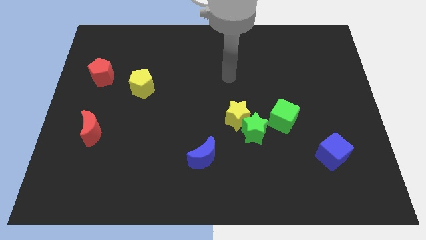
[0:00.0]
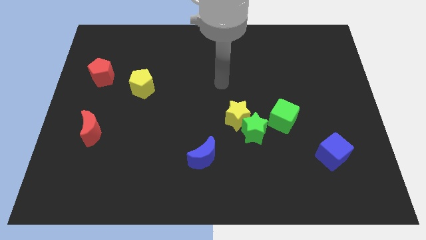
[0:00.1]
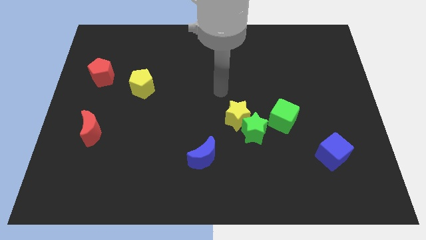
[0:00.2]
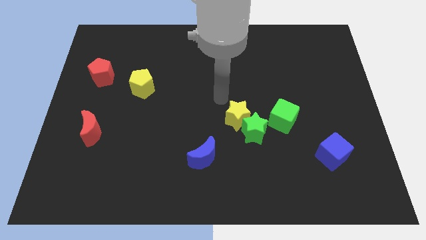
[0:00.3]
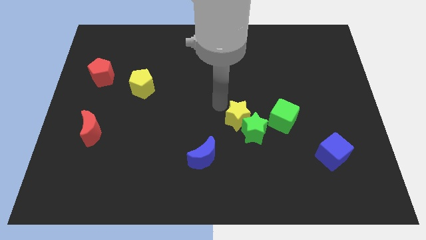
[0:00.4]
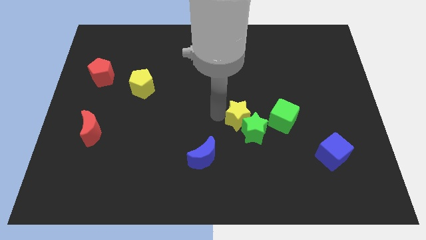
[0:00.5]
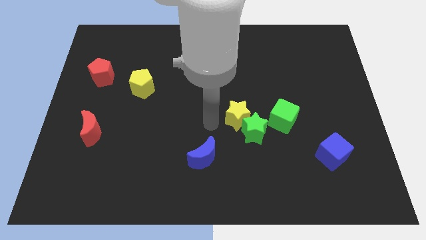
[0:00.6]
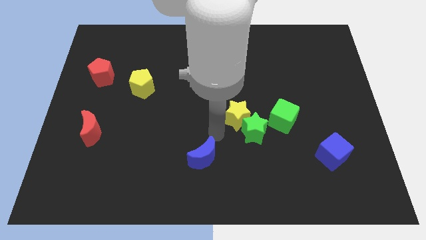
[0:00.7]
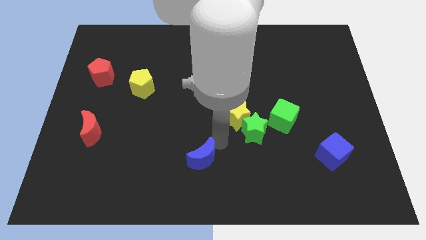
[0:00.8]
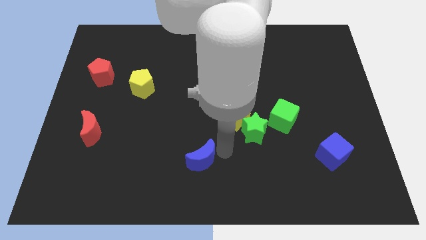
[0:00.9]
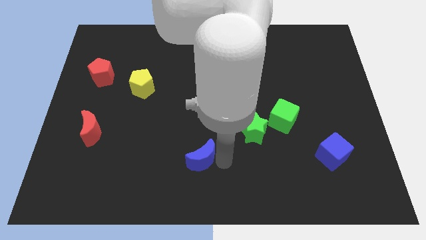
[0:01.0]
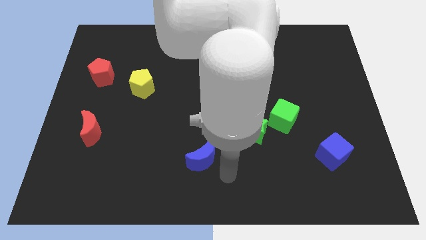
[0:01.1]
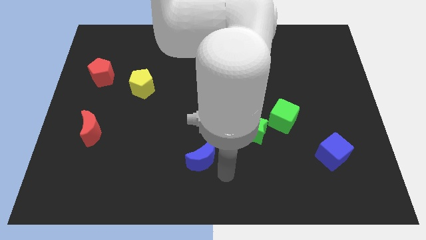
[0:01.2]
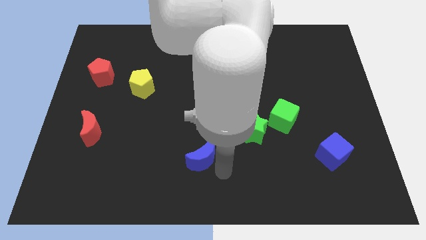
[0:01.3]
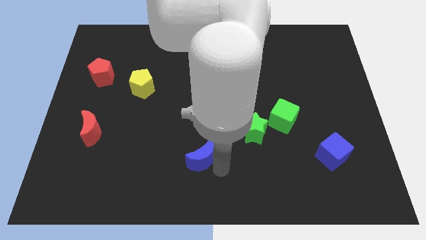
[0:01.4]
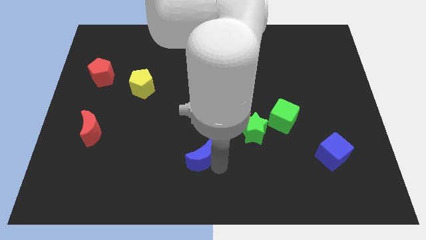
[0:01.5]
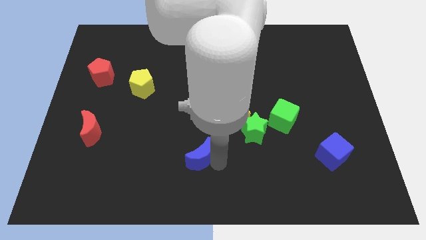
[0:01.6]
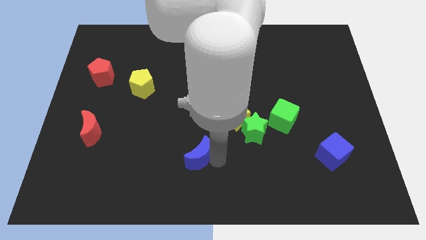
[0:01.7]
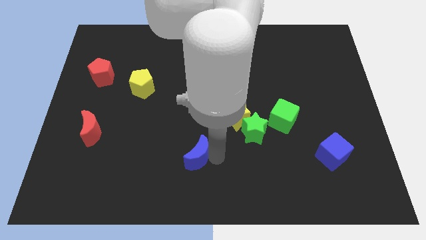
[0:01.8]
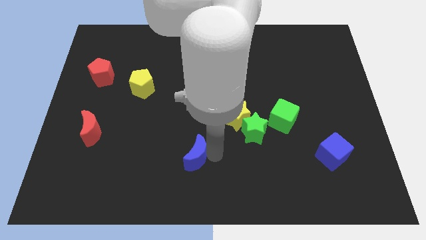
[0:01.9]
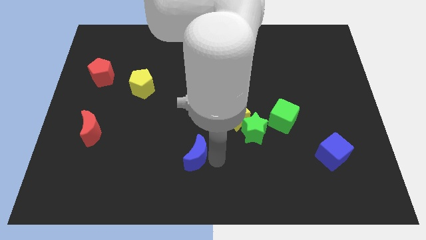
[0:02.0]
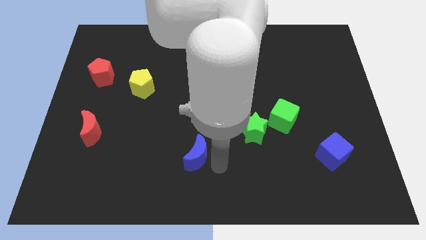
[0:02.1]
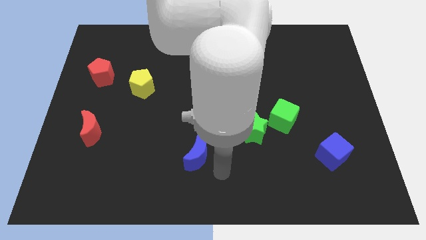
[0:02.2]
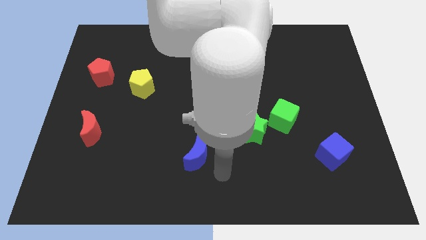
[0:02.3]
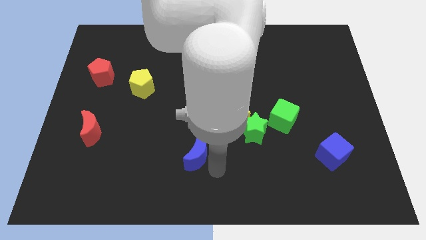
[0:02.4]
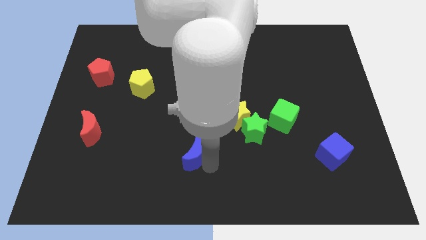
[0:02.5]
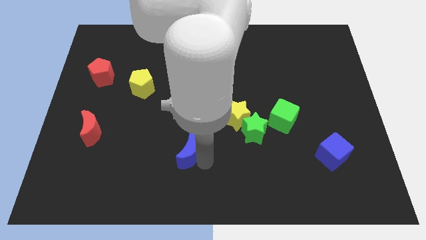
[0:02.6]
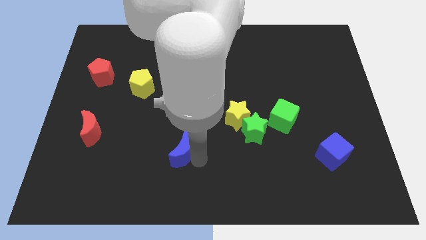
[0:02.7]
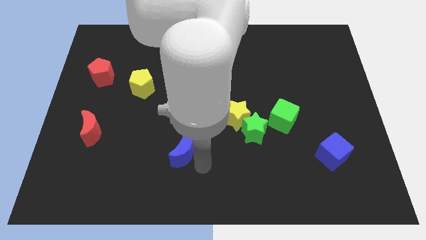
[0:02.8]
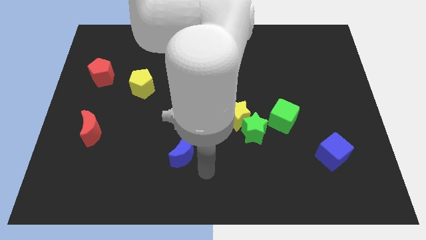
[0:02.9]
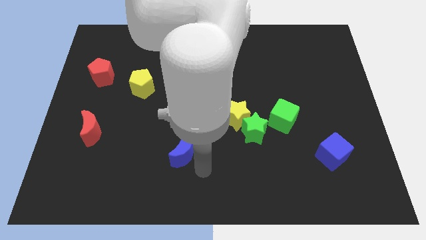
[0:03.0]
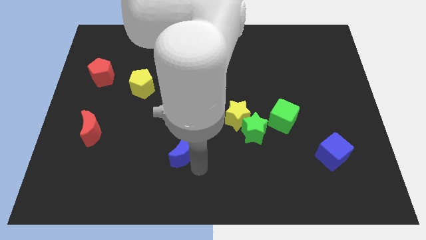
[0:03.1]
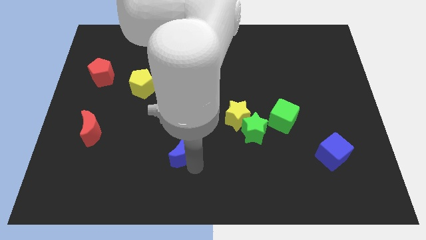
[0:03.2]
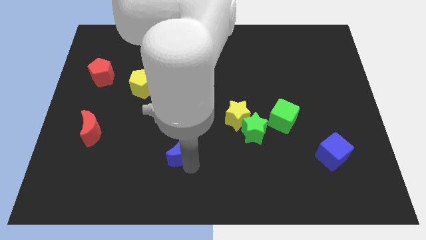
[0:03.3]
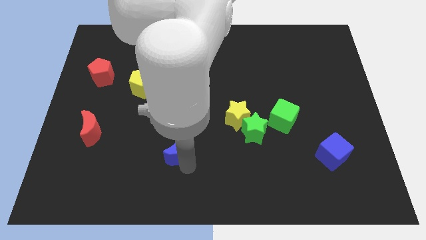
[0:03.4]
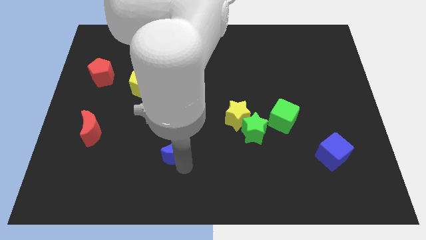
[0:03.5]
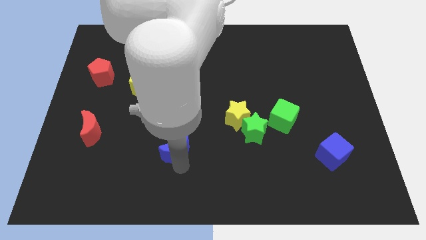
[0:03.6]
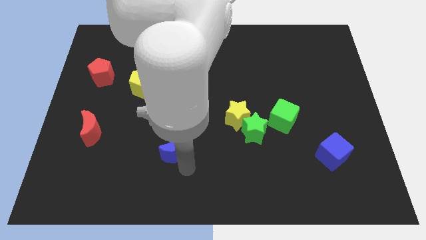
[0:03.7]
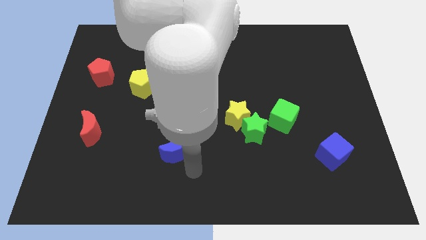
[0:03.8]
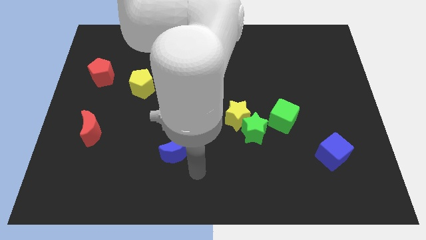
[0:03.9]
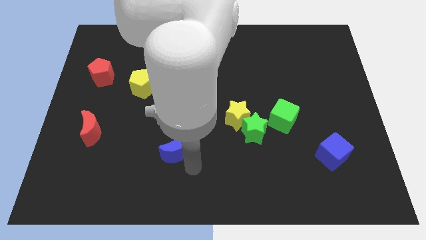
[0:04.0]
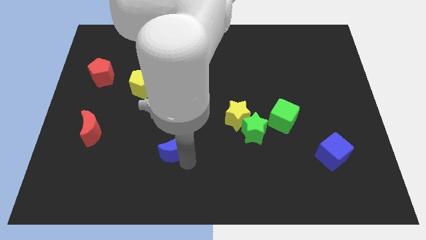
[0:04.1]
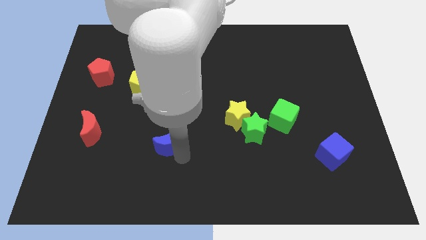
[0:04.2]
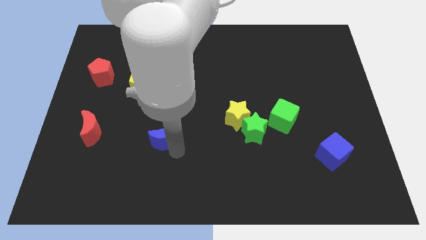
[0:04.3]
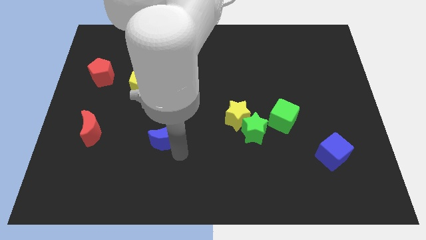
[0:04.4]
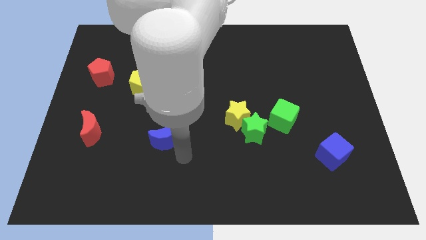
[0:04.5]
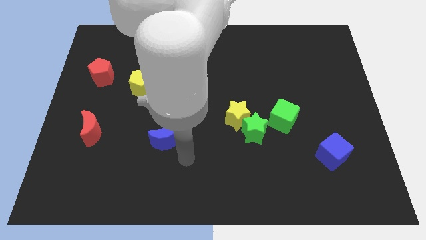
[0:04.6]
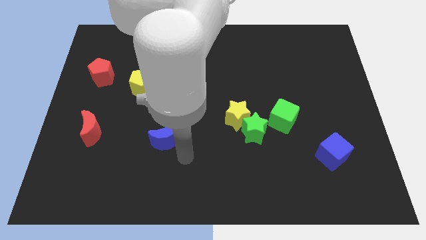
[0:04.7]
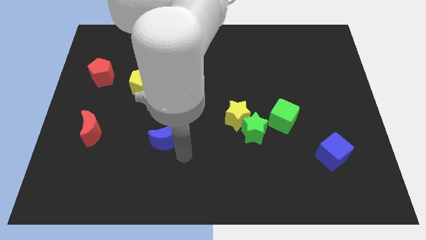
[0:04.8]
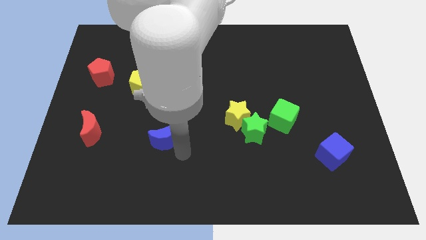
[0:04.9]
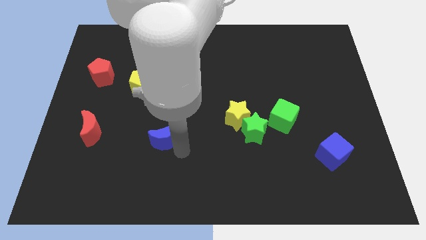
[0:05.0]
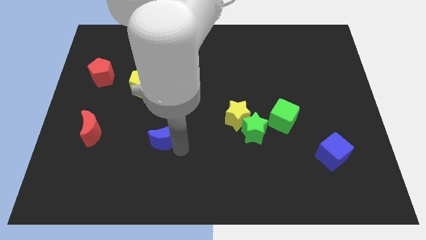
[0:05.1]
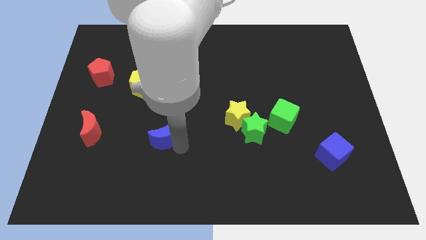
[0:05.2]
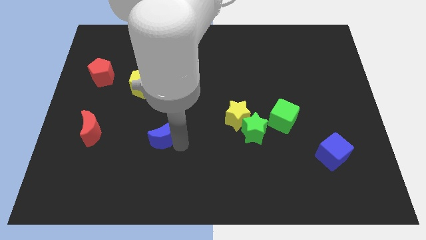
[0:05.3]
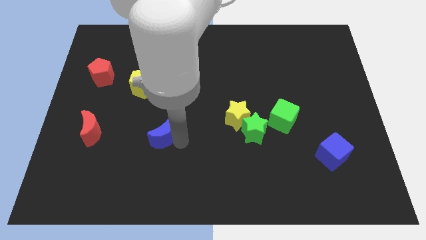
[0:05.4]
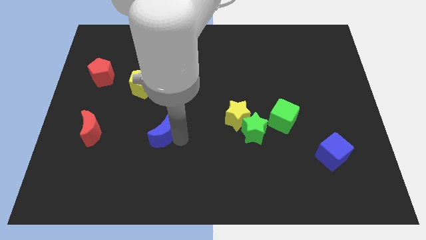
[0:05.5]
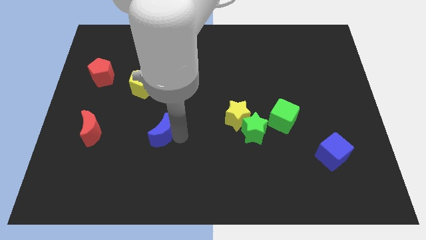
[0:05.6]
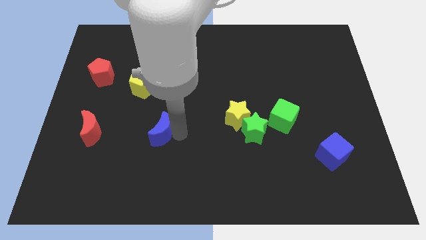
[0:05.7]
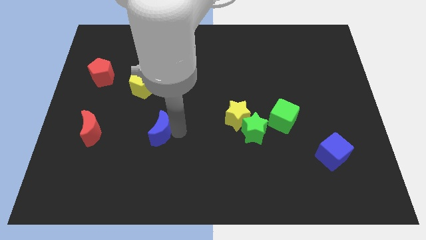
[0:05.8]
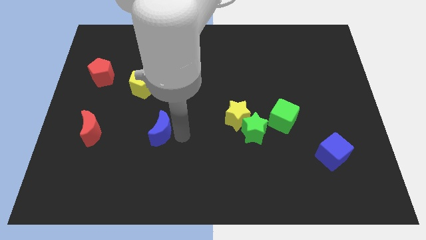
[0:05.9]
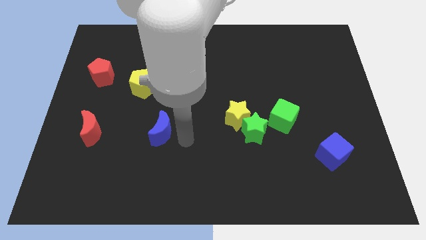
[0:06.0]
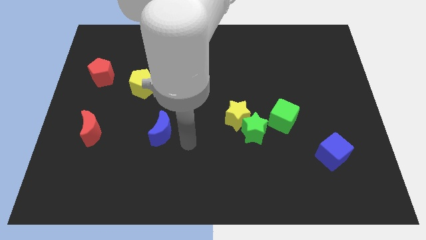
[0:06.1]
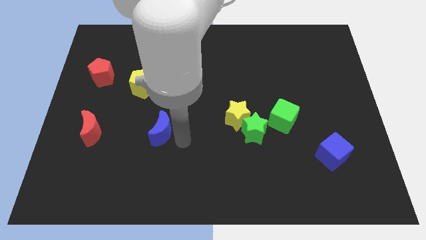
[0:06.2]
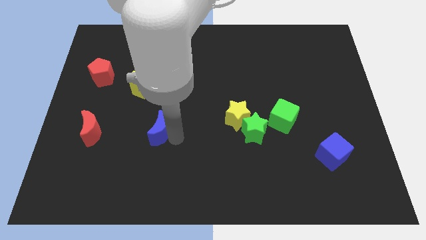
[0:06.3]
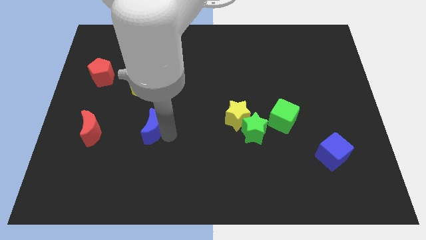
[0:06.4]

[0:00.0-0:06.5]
move the blue moon to the bottom of the yellow pentagon

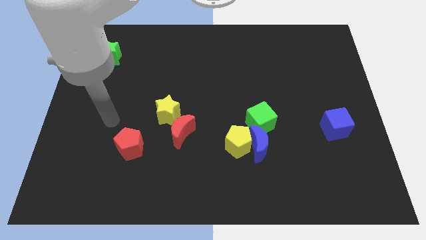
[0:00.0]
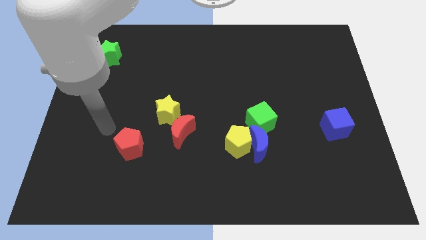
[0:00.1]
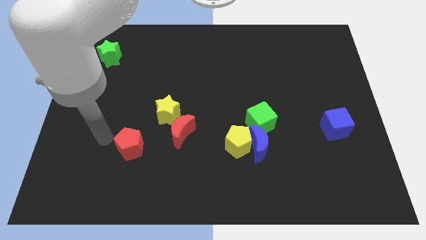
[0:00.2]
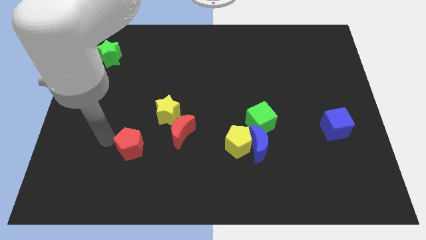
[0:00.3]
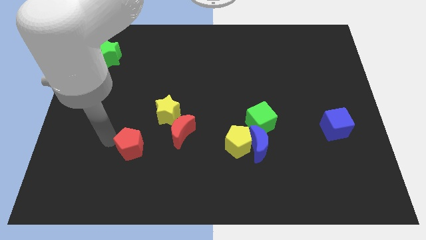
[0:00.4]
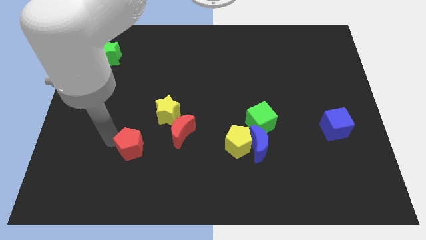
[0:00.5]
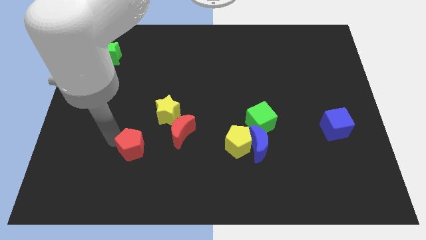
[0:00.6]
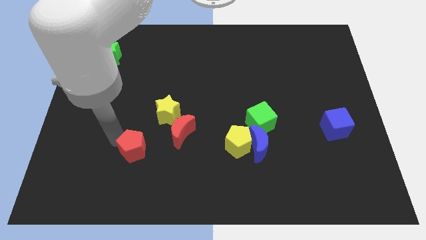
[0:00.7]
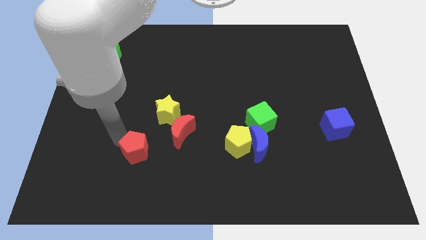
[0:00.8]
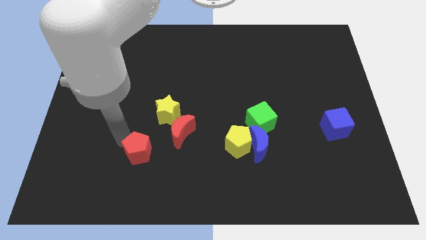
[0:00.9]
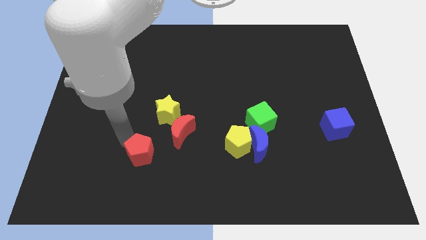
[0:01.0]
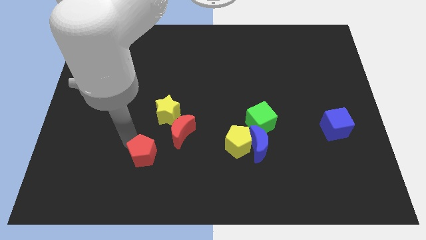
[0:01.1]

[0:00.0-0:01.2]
move the red pentagon to the bottom of the yellow star

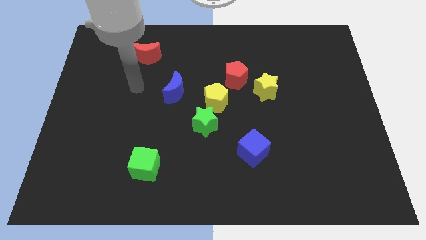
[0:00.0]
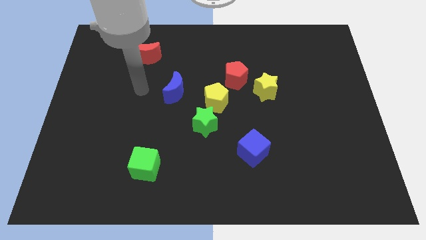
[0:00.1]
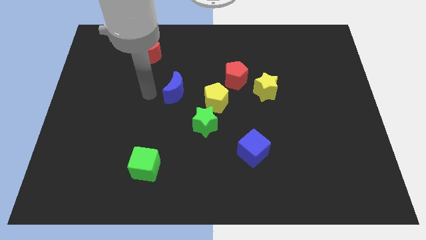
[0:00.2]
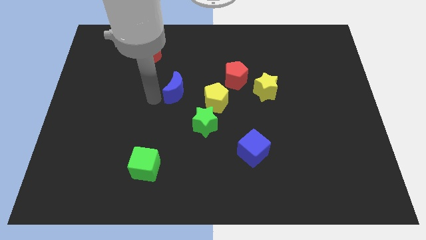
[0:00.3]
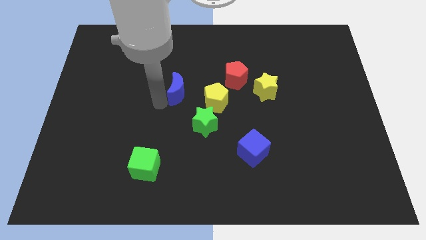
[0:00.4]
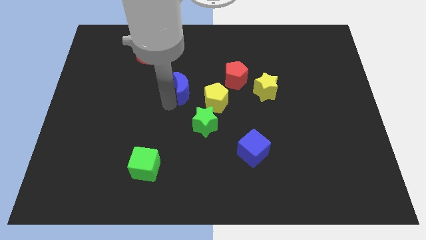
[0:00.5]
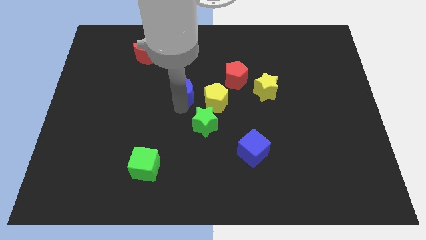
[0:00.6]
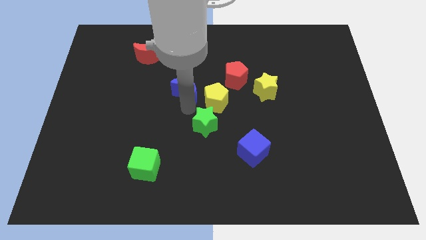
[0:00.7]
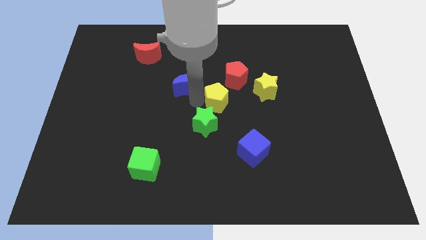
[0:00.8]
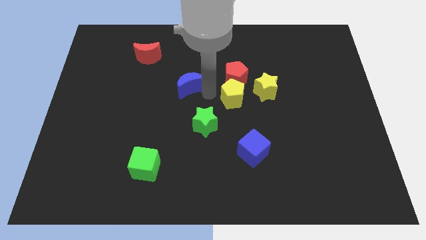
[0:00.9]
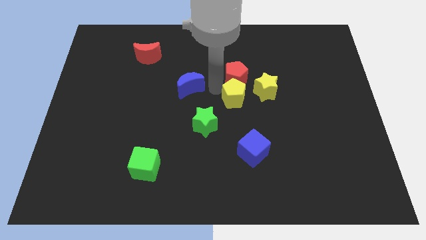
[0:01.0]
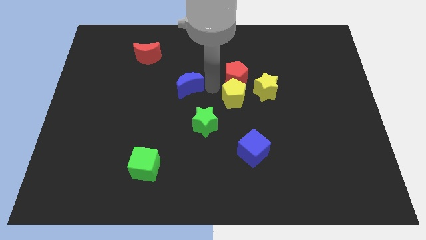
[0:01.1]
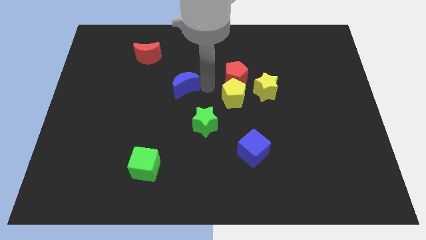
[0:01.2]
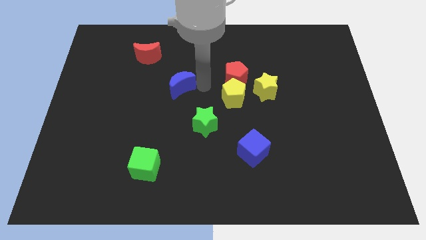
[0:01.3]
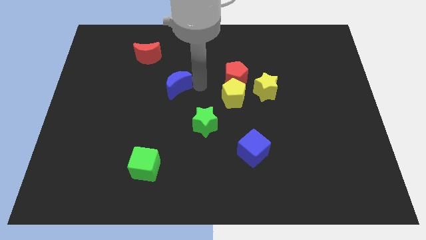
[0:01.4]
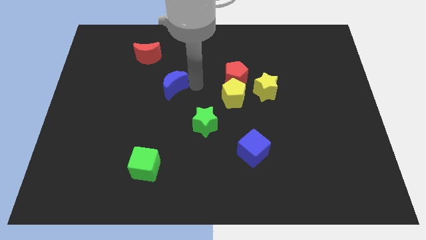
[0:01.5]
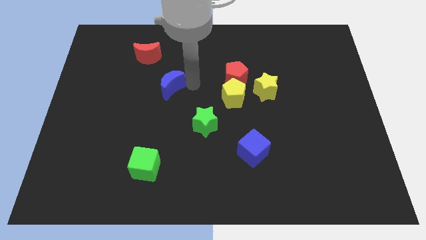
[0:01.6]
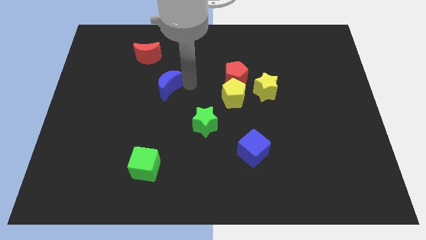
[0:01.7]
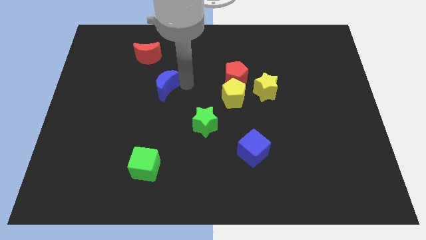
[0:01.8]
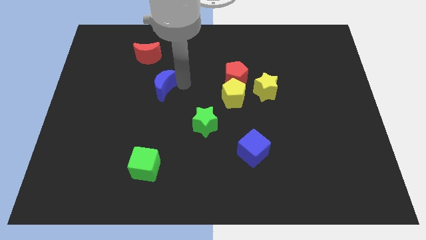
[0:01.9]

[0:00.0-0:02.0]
put the blue moon to the bottom side of the red moon
